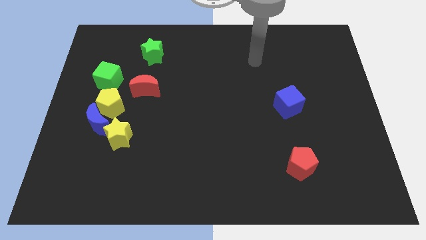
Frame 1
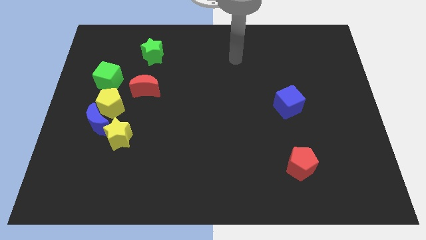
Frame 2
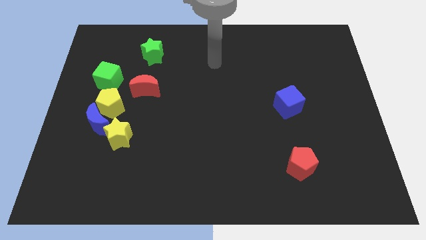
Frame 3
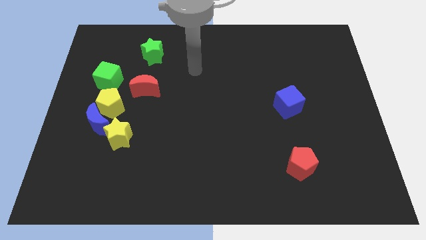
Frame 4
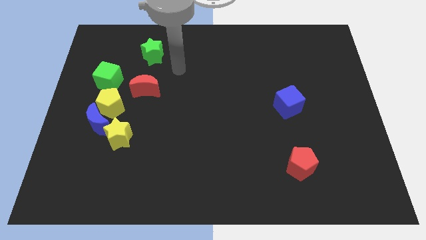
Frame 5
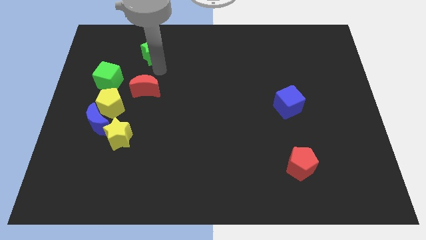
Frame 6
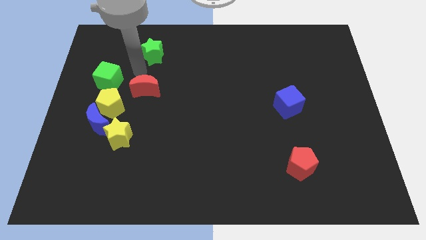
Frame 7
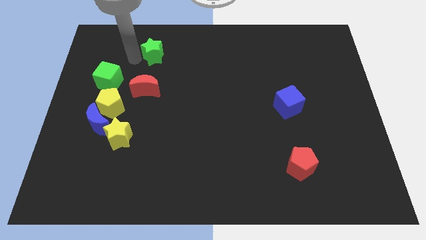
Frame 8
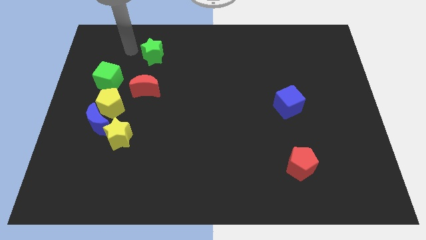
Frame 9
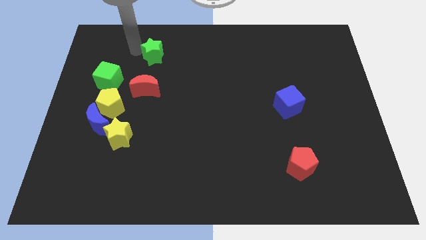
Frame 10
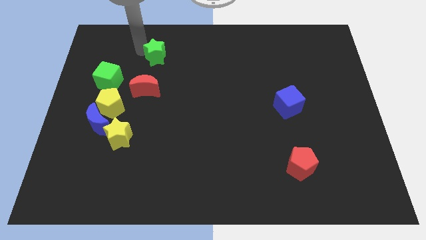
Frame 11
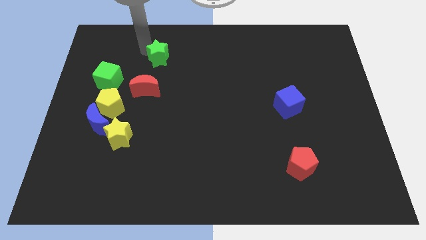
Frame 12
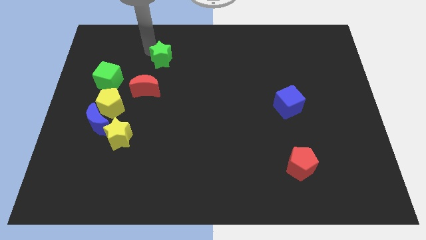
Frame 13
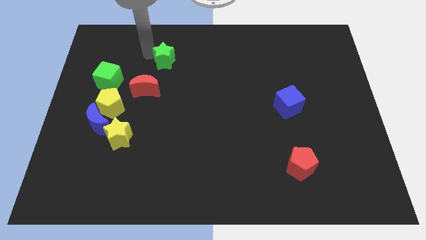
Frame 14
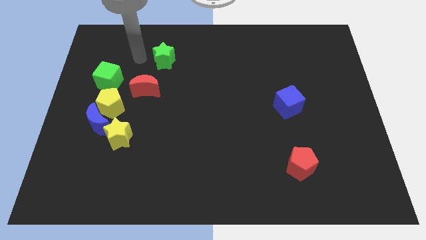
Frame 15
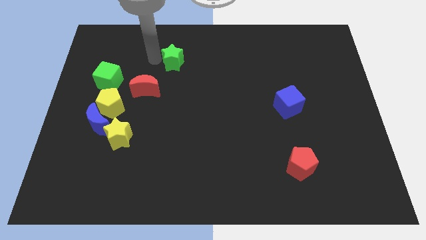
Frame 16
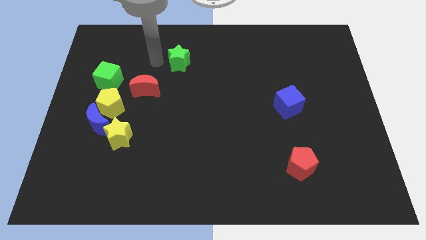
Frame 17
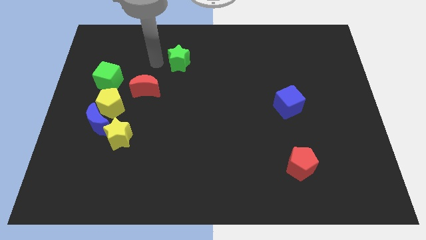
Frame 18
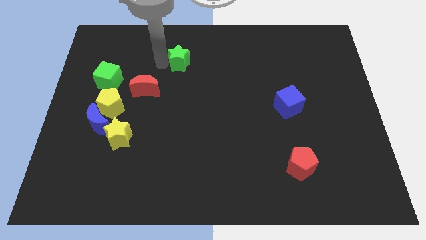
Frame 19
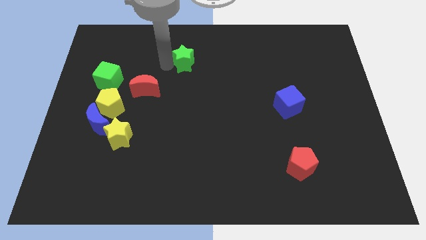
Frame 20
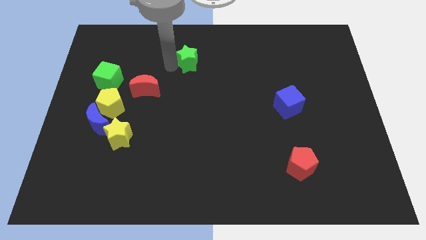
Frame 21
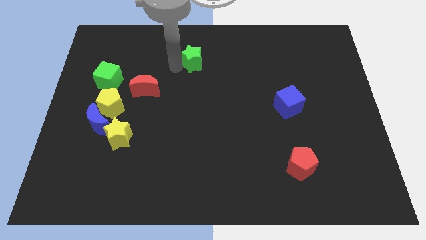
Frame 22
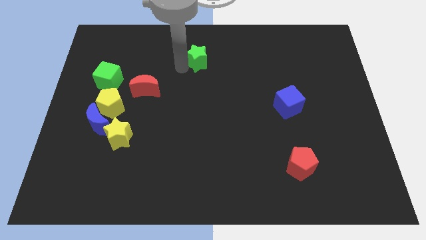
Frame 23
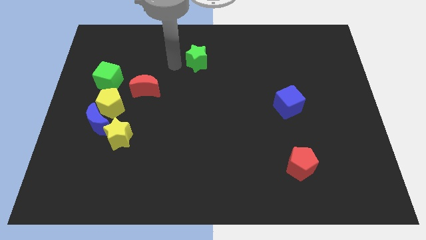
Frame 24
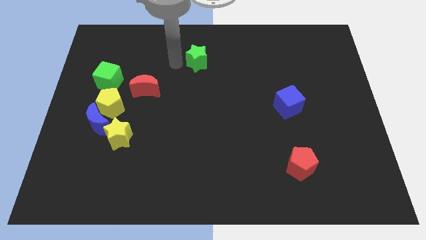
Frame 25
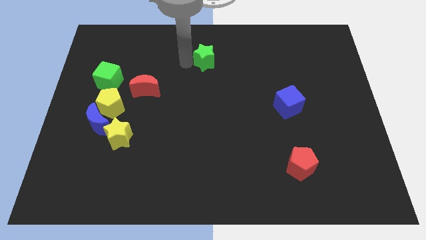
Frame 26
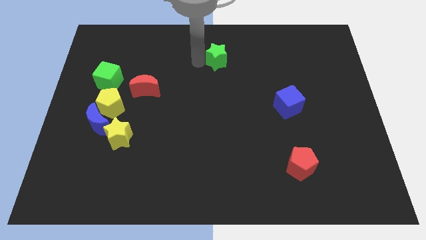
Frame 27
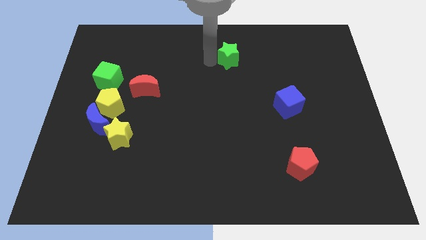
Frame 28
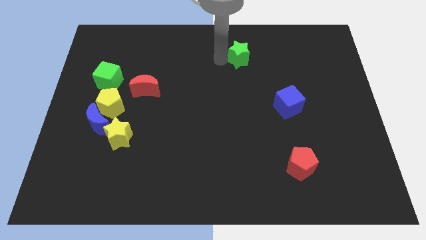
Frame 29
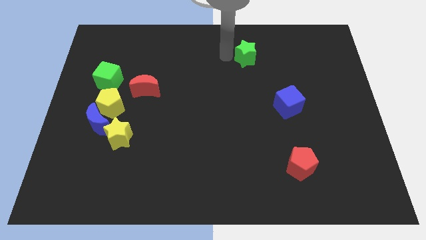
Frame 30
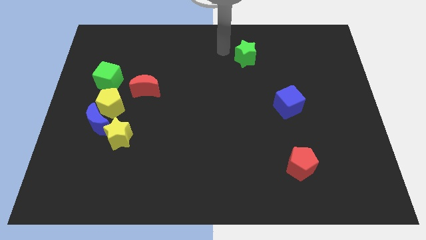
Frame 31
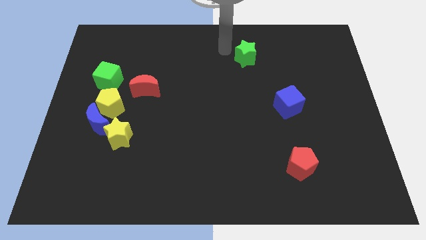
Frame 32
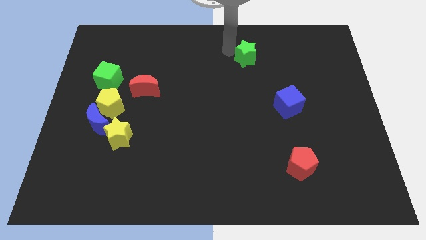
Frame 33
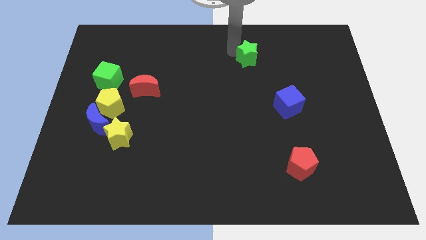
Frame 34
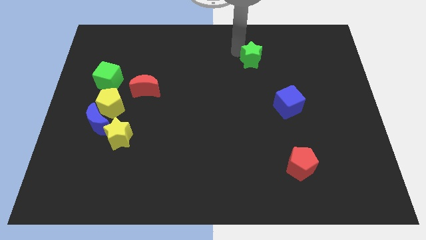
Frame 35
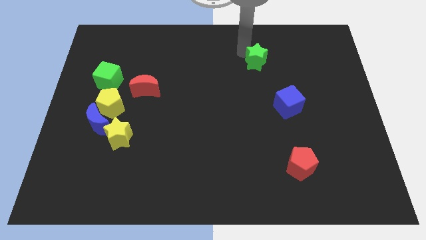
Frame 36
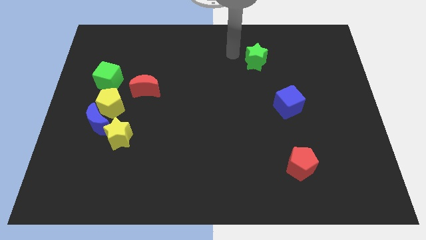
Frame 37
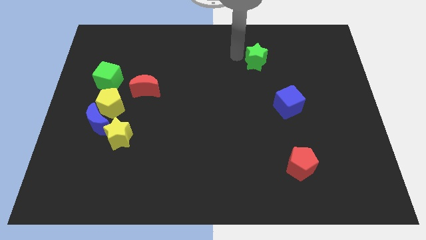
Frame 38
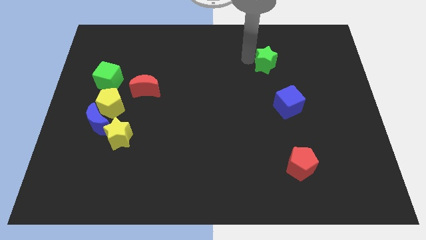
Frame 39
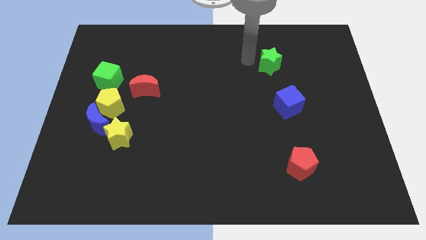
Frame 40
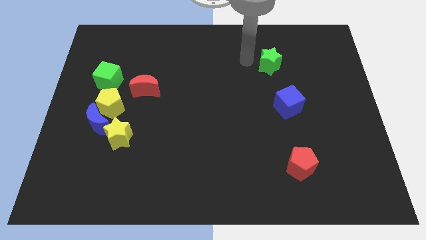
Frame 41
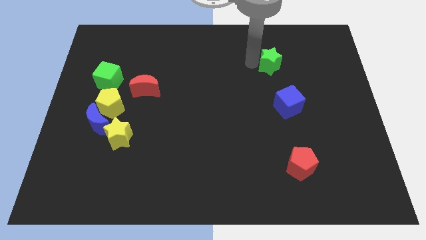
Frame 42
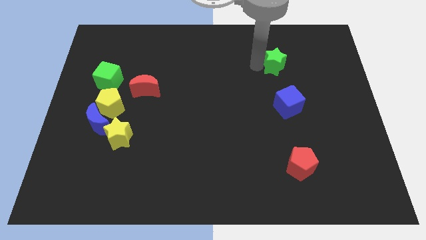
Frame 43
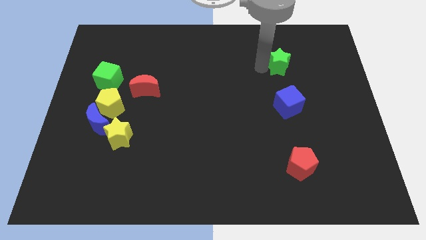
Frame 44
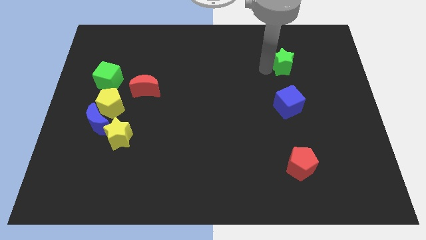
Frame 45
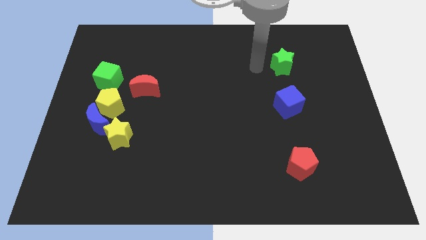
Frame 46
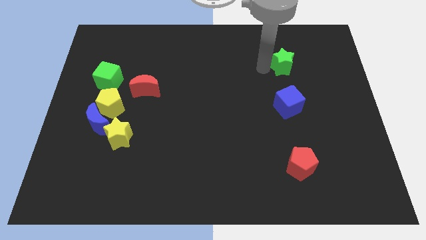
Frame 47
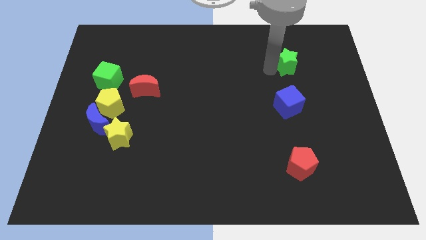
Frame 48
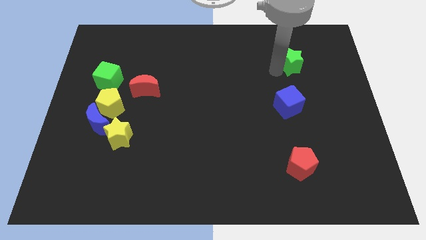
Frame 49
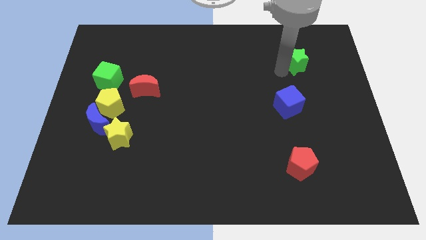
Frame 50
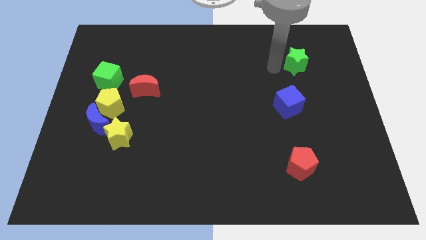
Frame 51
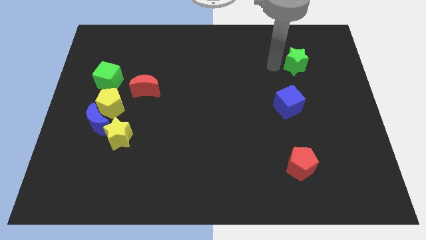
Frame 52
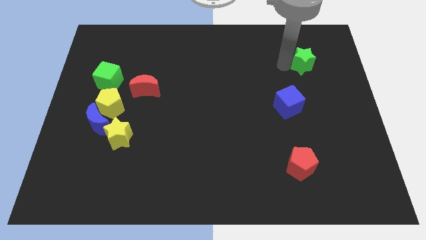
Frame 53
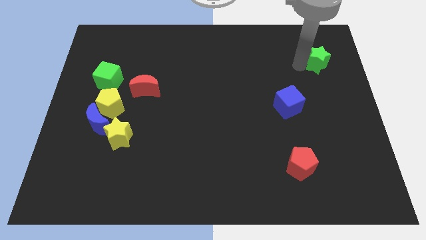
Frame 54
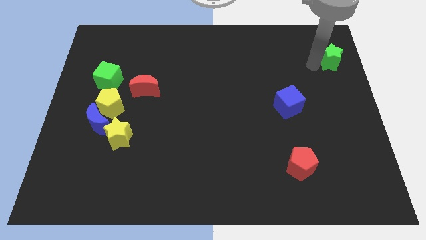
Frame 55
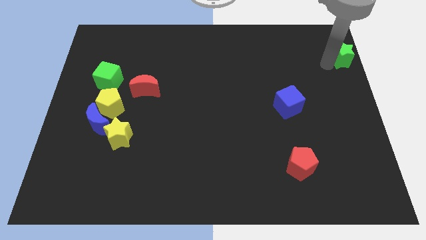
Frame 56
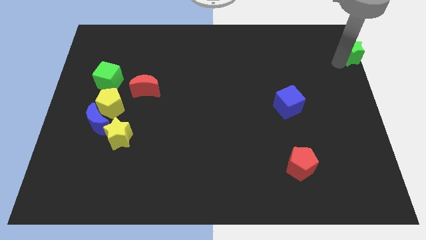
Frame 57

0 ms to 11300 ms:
push the green star to the top right corner

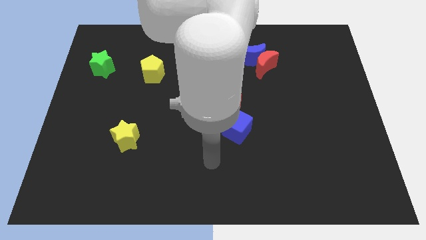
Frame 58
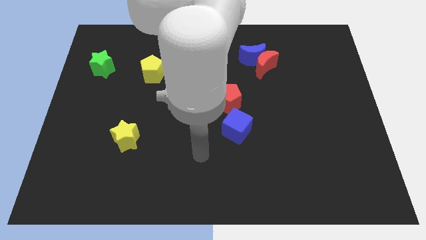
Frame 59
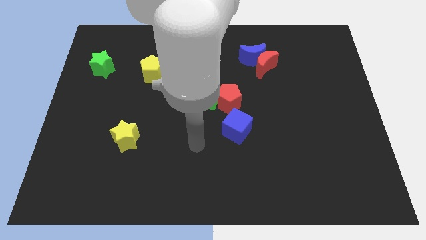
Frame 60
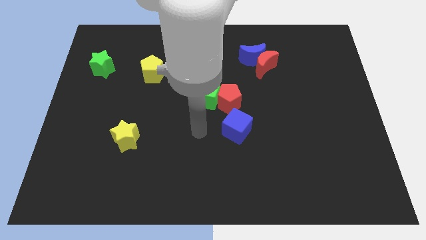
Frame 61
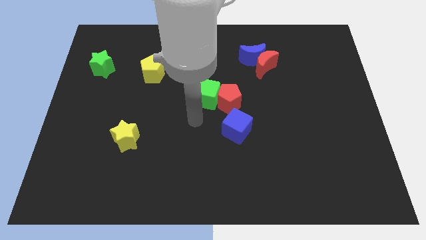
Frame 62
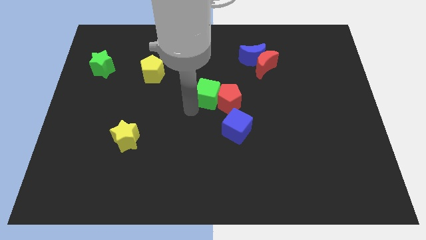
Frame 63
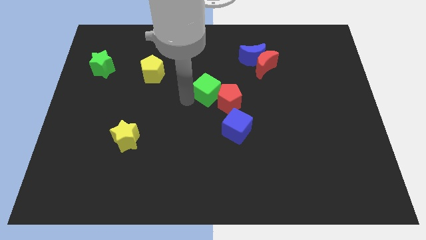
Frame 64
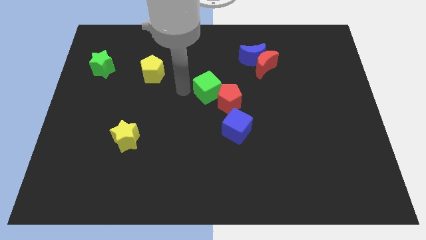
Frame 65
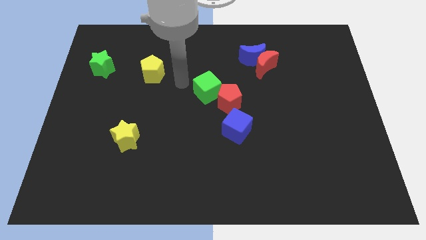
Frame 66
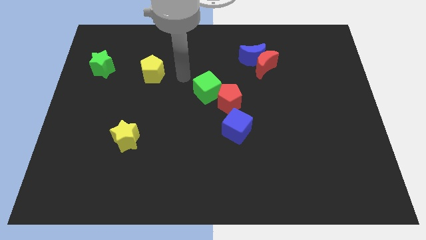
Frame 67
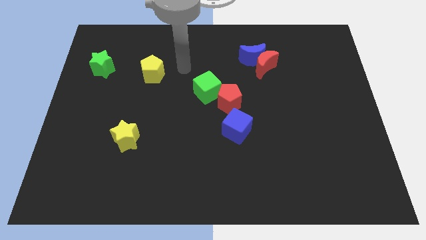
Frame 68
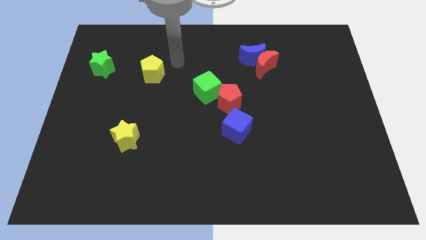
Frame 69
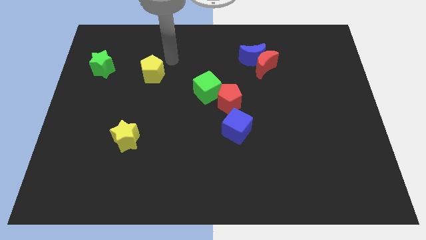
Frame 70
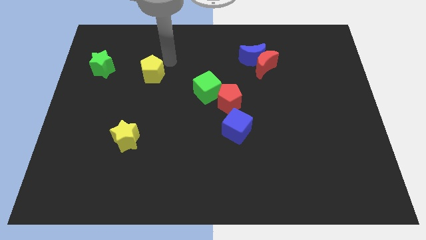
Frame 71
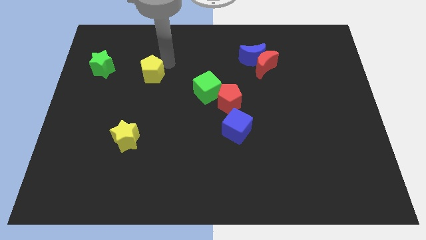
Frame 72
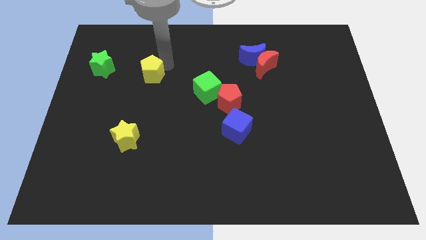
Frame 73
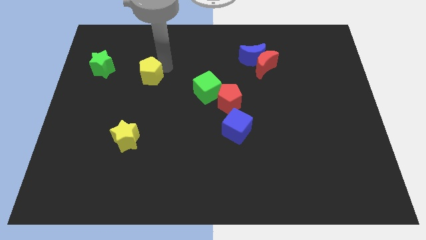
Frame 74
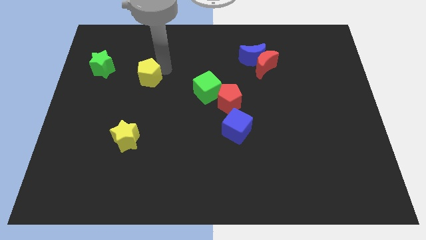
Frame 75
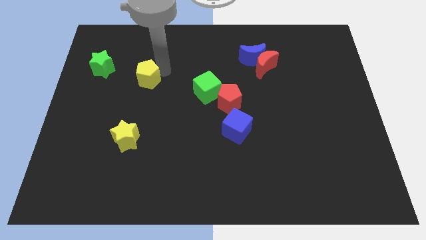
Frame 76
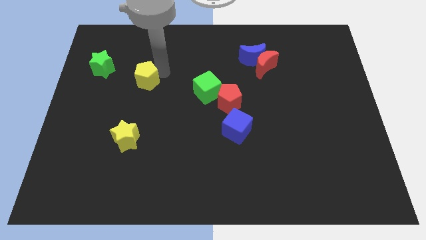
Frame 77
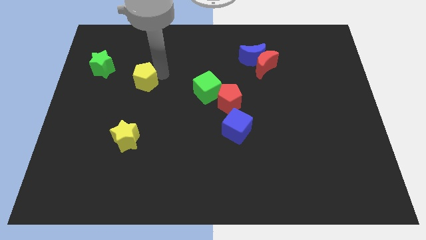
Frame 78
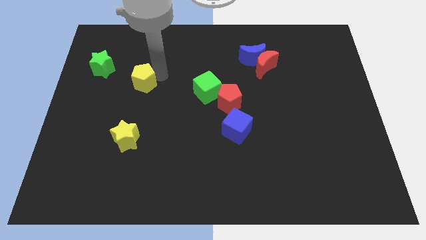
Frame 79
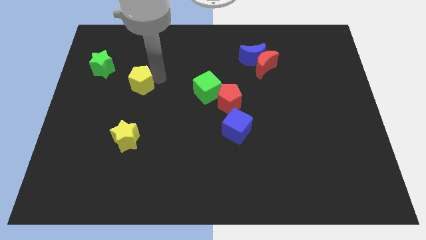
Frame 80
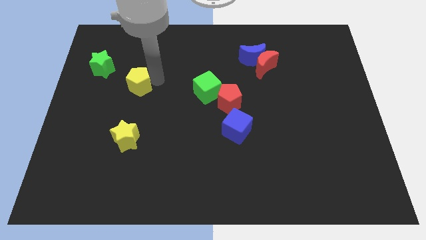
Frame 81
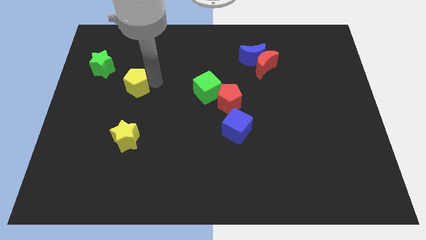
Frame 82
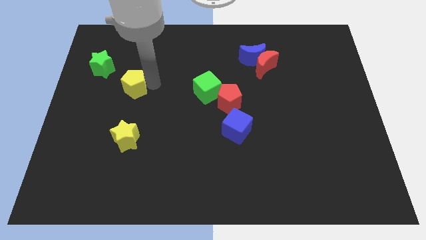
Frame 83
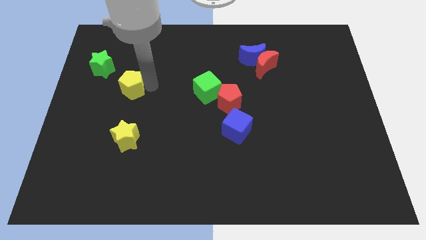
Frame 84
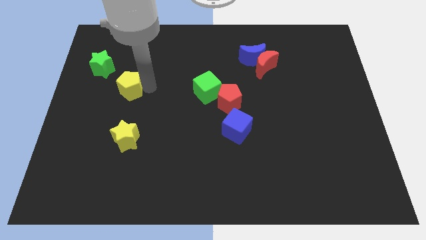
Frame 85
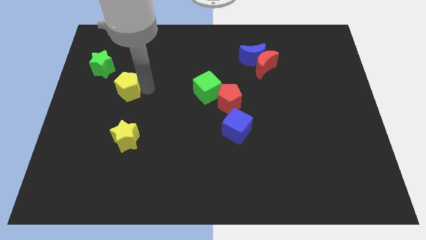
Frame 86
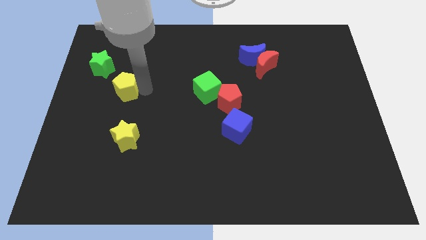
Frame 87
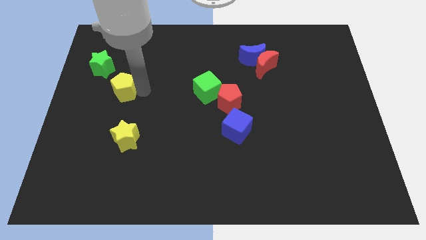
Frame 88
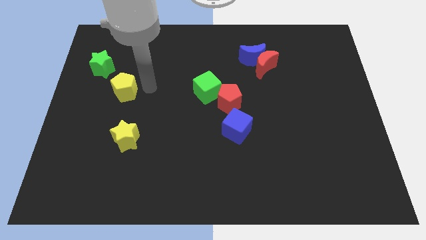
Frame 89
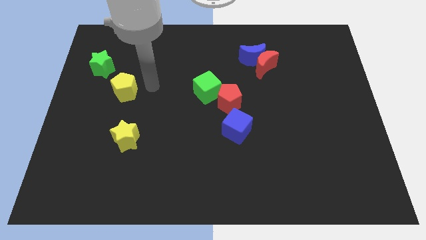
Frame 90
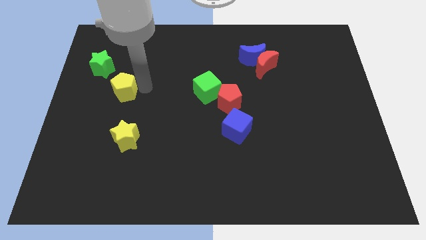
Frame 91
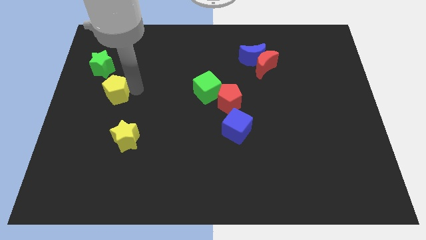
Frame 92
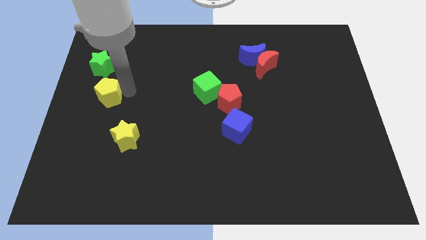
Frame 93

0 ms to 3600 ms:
slide the yellow pentagon to the left side
